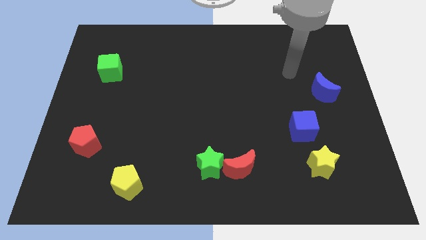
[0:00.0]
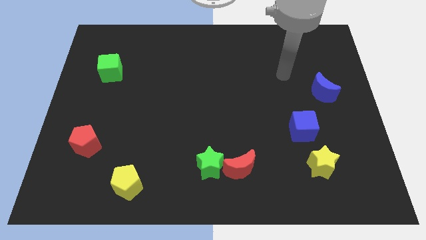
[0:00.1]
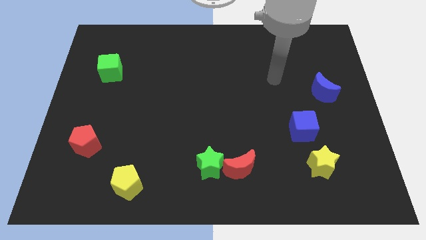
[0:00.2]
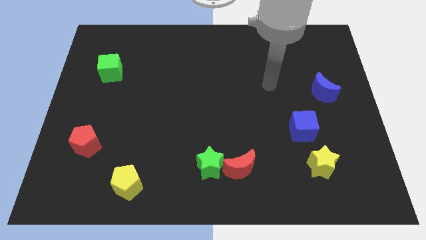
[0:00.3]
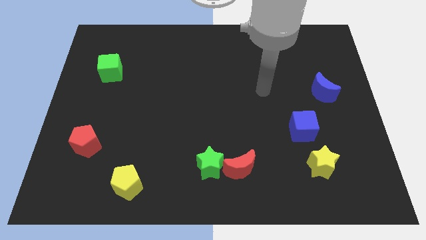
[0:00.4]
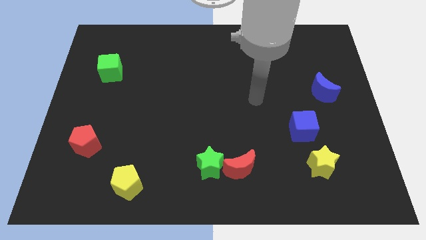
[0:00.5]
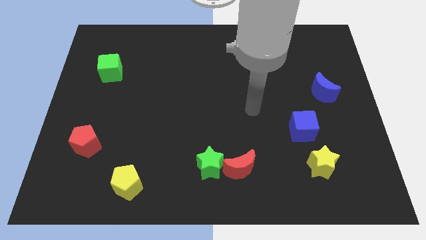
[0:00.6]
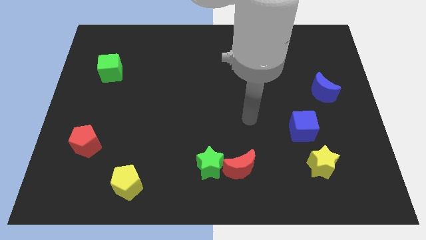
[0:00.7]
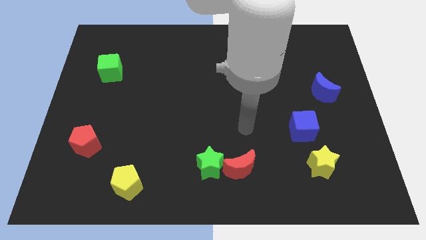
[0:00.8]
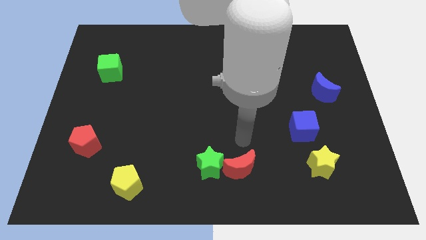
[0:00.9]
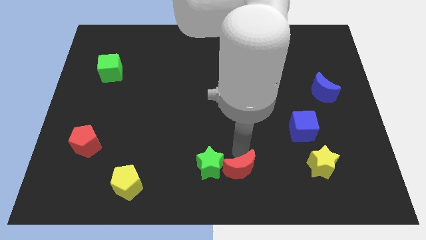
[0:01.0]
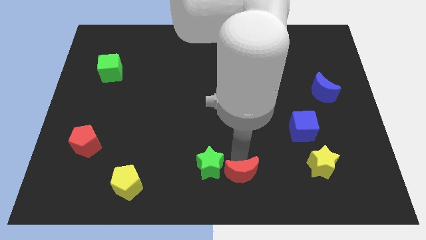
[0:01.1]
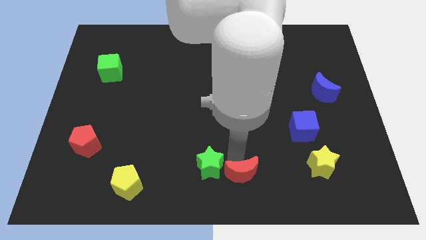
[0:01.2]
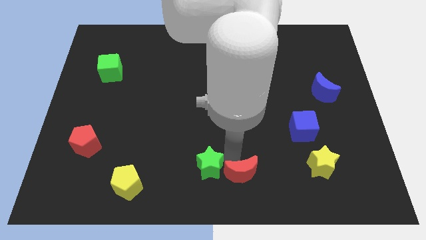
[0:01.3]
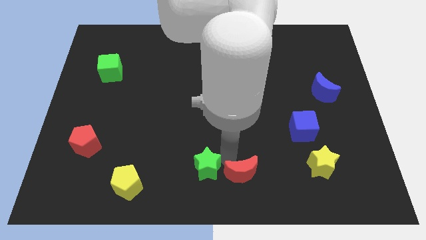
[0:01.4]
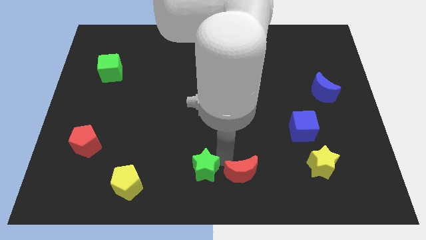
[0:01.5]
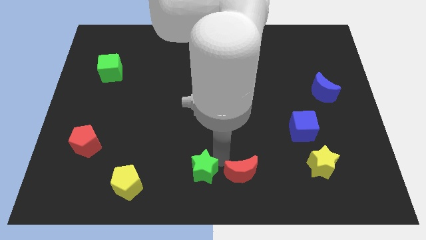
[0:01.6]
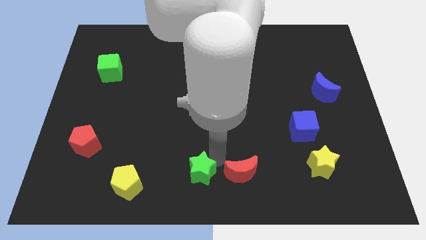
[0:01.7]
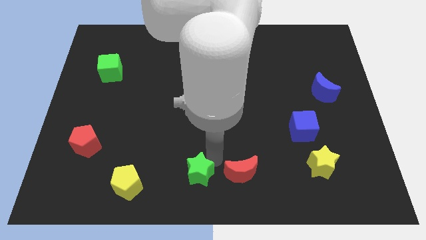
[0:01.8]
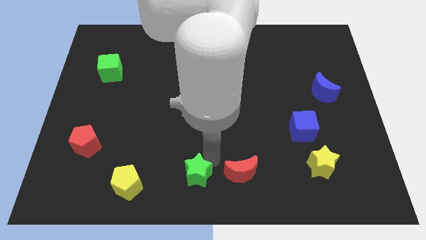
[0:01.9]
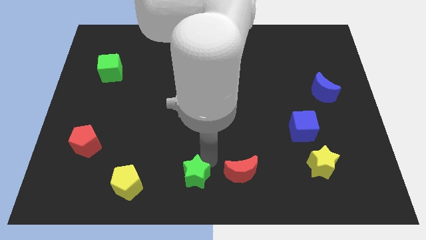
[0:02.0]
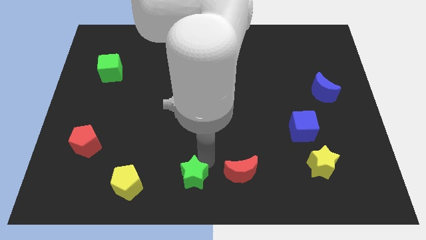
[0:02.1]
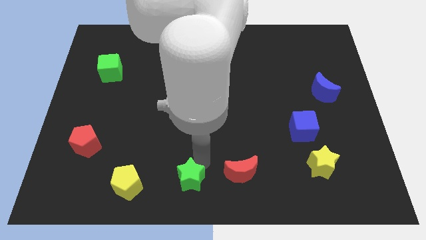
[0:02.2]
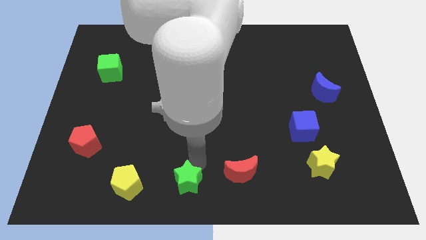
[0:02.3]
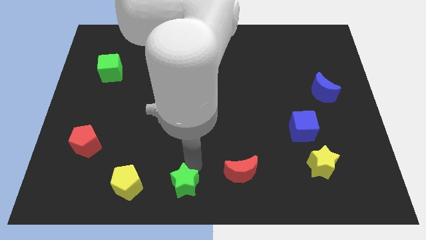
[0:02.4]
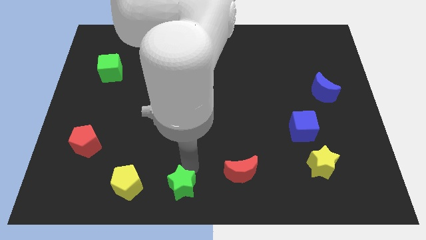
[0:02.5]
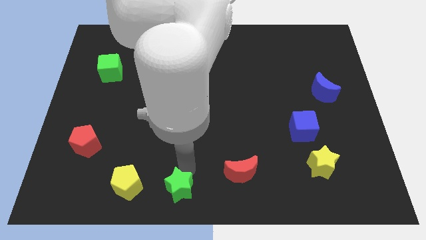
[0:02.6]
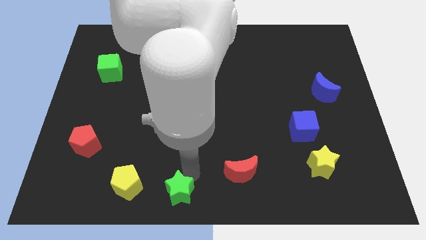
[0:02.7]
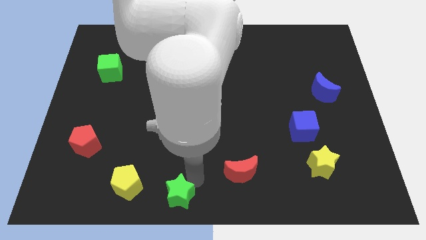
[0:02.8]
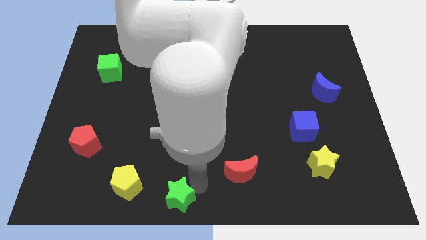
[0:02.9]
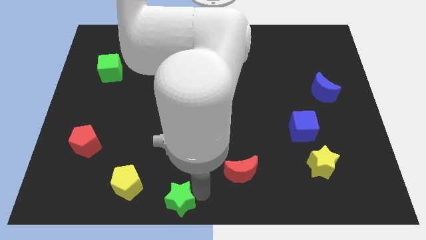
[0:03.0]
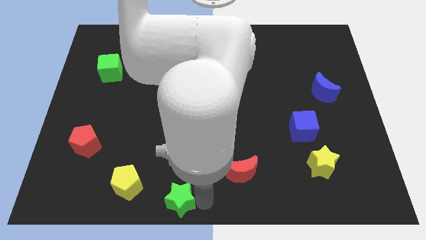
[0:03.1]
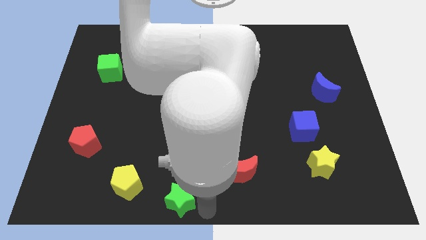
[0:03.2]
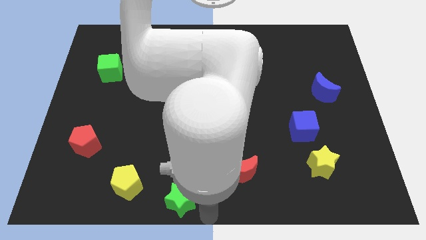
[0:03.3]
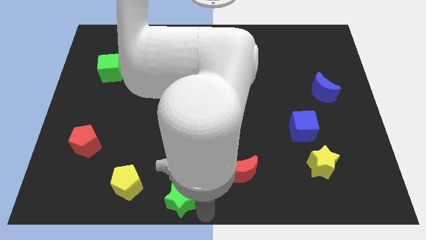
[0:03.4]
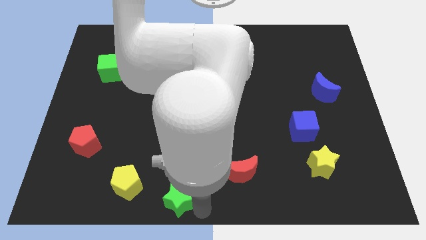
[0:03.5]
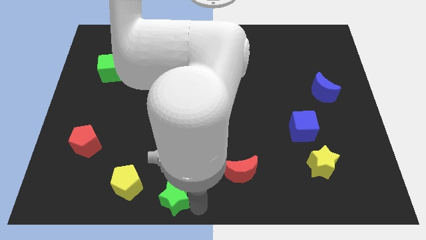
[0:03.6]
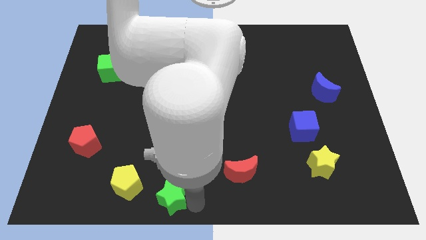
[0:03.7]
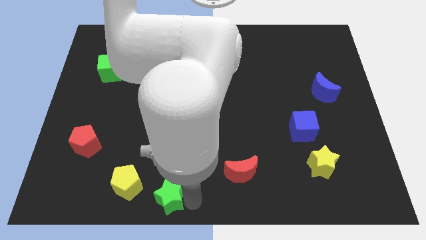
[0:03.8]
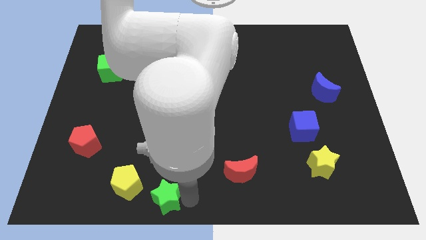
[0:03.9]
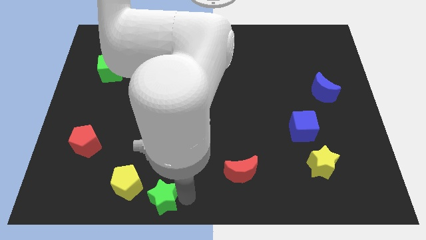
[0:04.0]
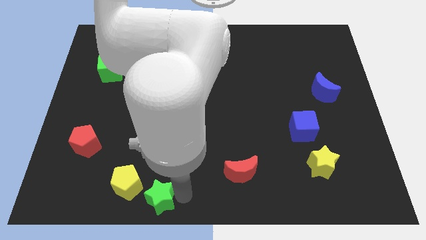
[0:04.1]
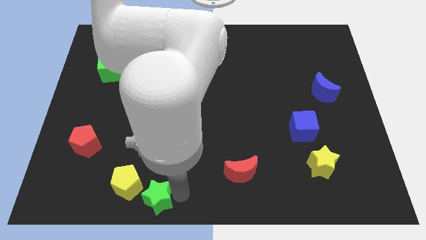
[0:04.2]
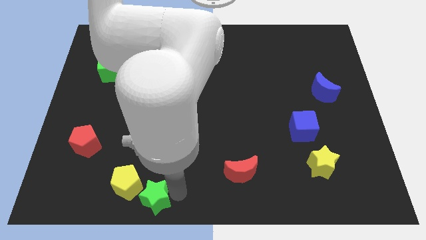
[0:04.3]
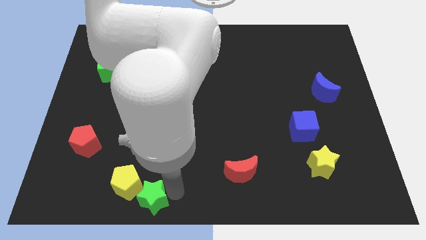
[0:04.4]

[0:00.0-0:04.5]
push the green star next to the yellow pentagon

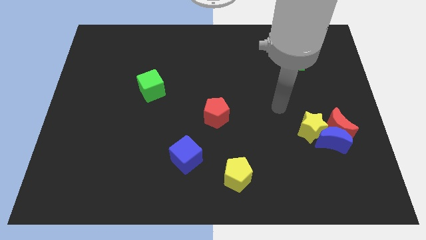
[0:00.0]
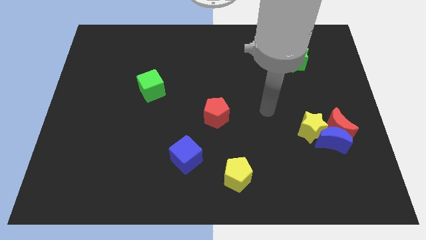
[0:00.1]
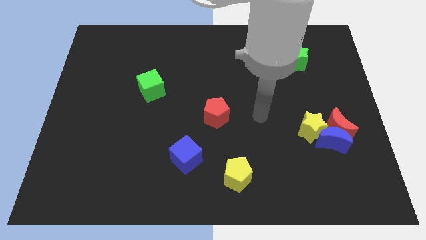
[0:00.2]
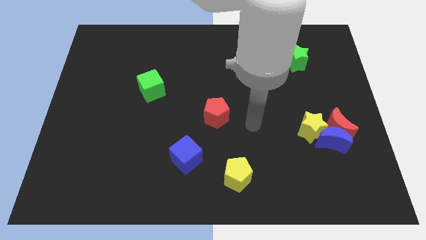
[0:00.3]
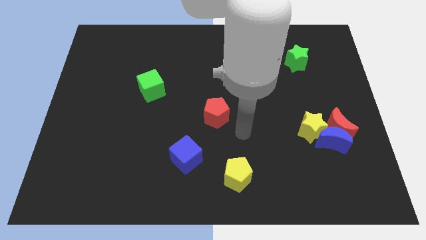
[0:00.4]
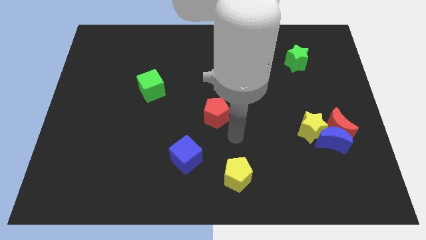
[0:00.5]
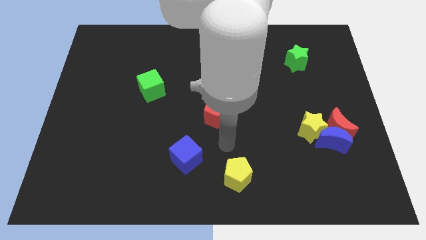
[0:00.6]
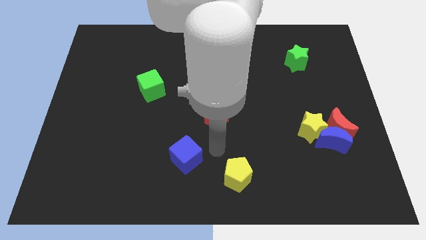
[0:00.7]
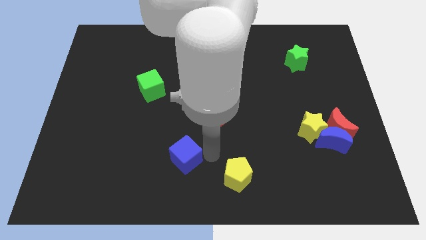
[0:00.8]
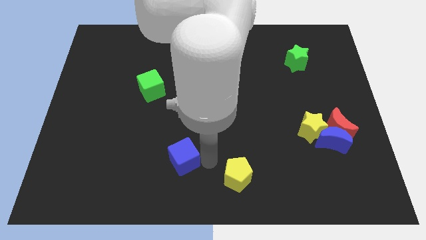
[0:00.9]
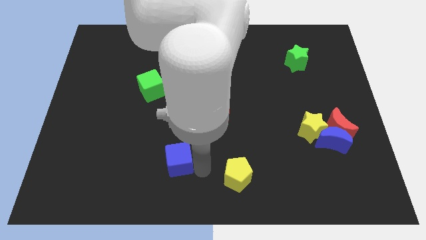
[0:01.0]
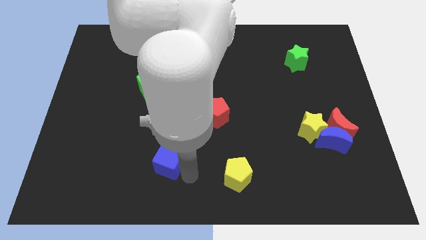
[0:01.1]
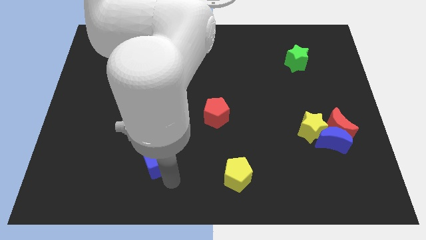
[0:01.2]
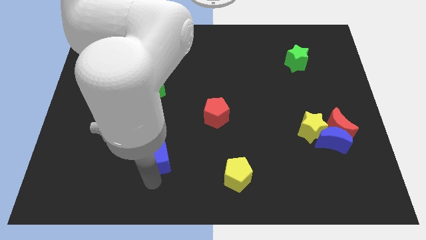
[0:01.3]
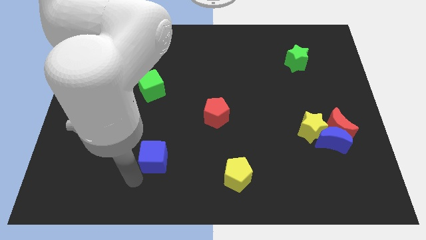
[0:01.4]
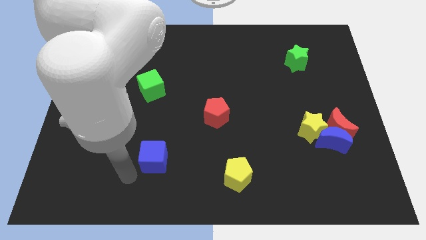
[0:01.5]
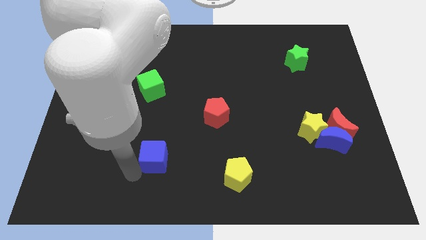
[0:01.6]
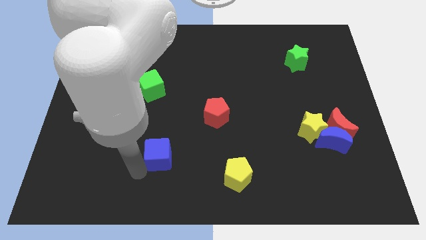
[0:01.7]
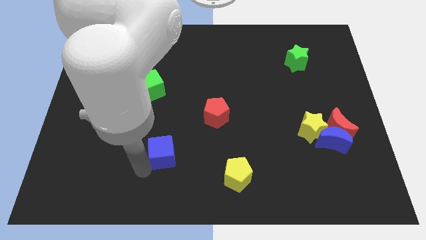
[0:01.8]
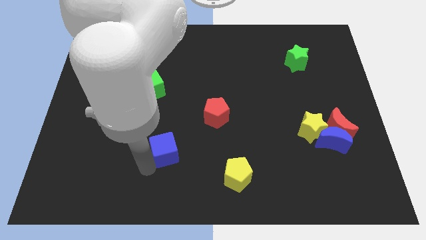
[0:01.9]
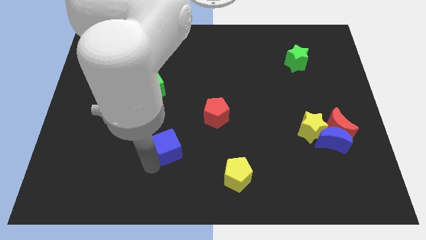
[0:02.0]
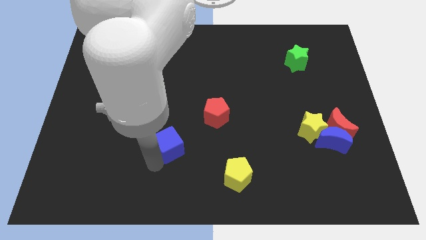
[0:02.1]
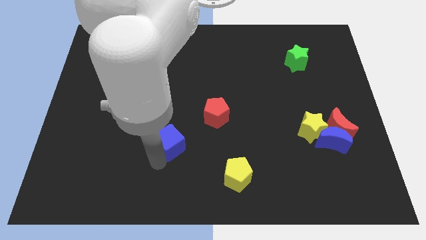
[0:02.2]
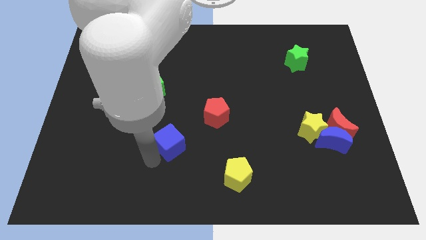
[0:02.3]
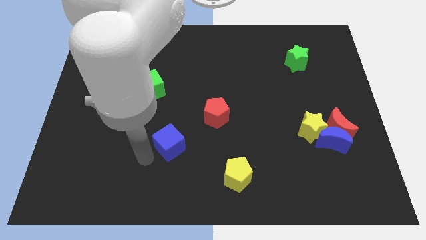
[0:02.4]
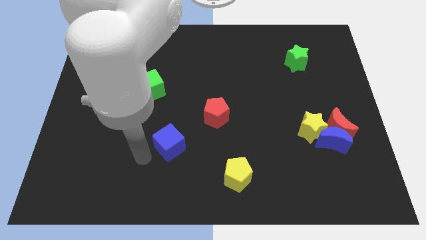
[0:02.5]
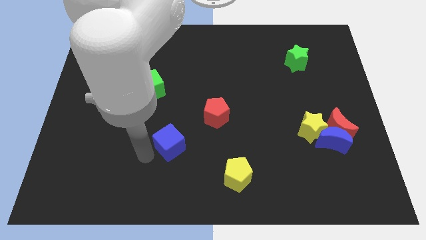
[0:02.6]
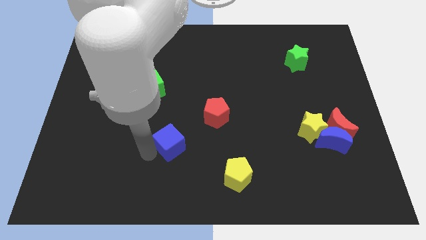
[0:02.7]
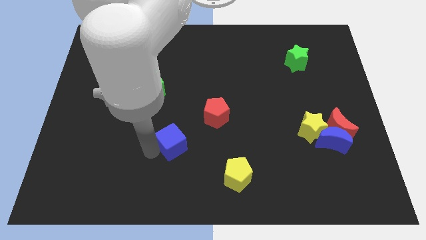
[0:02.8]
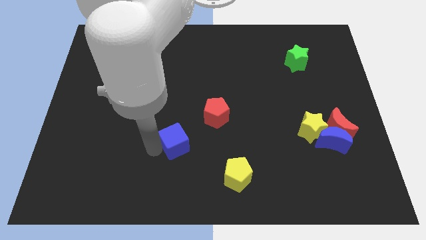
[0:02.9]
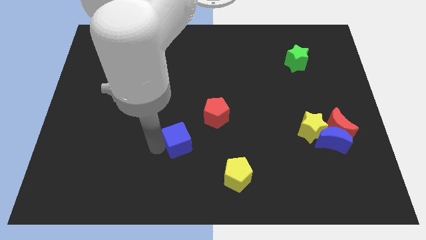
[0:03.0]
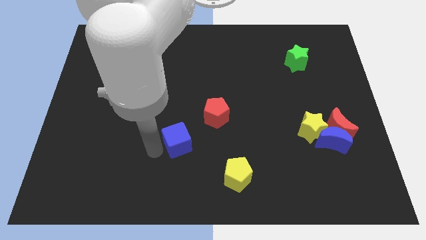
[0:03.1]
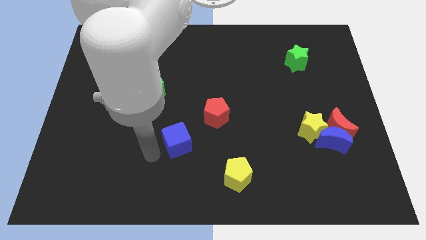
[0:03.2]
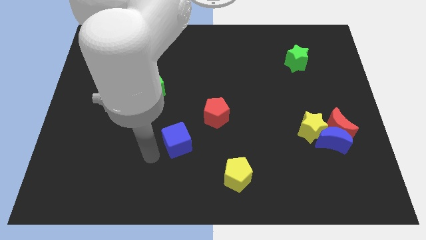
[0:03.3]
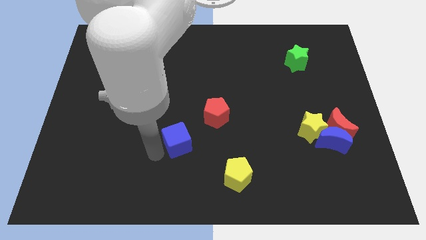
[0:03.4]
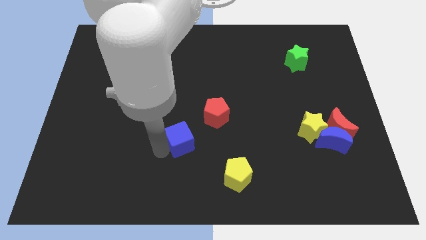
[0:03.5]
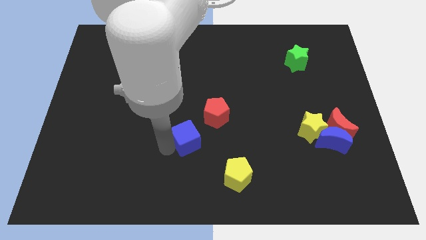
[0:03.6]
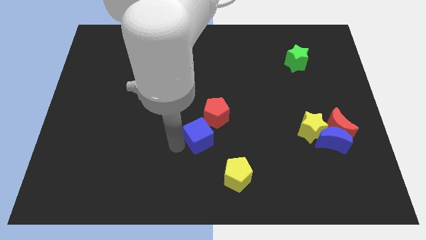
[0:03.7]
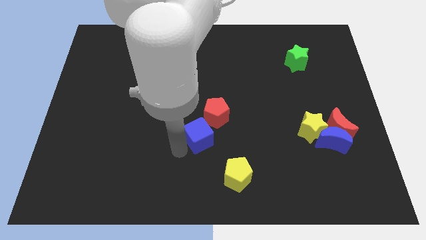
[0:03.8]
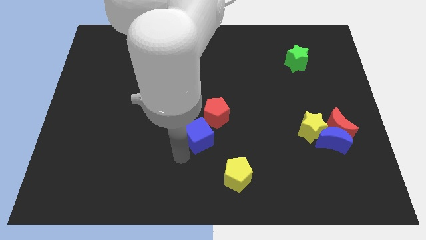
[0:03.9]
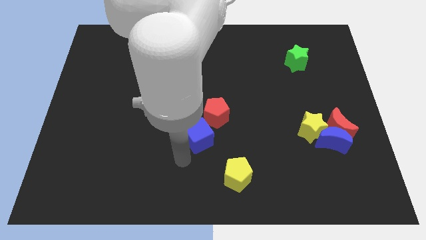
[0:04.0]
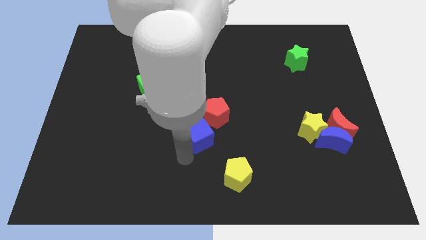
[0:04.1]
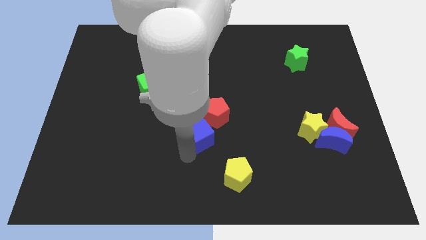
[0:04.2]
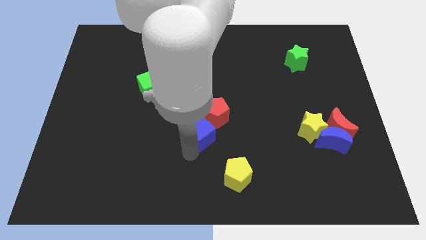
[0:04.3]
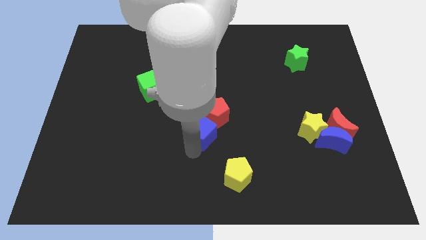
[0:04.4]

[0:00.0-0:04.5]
slide the blue cube next to the red pentagon
